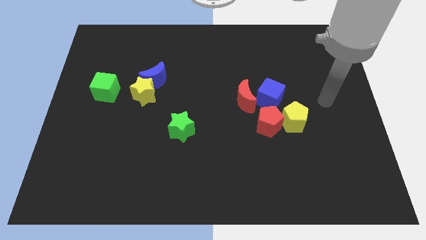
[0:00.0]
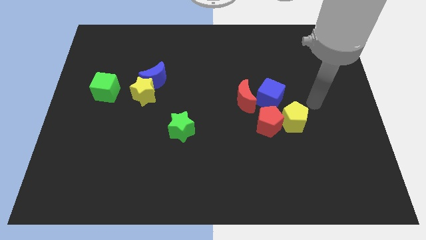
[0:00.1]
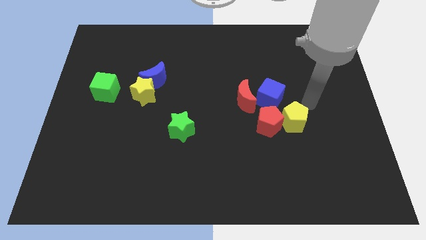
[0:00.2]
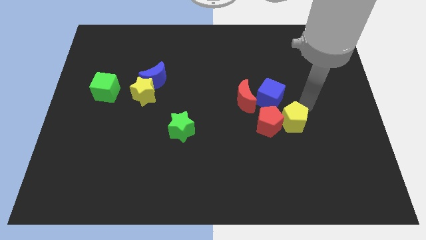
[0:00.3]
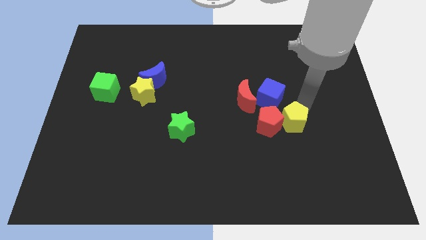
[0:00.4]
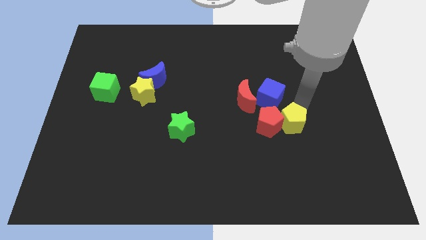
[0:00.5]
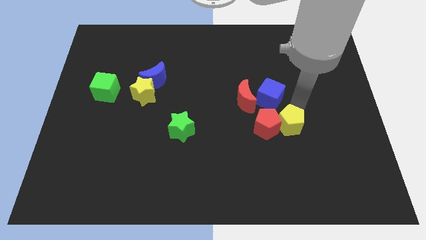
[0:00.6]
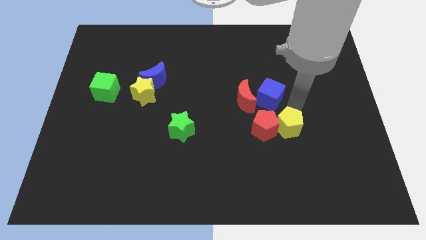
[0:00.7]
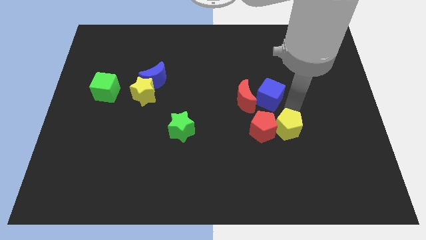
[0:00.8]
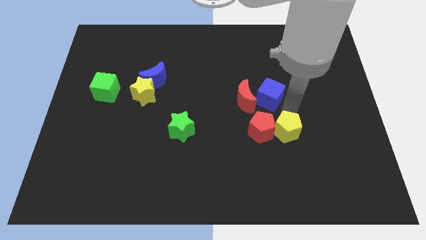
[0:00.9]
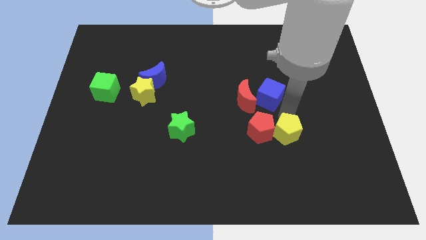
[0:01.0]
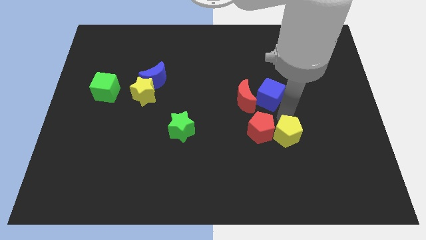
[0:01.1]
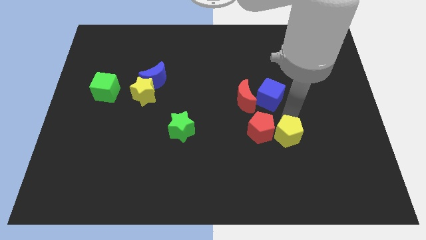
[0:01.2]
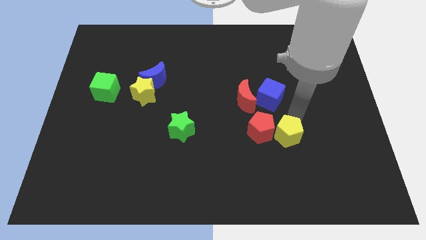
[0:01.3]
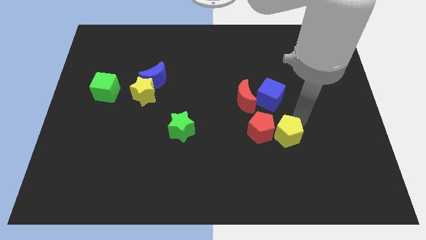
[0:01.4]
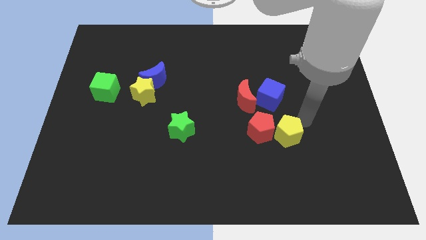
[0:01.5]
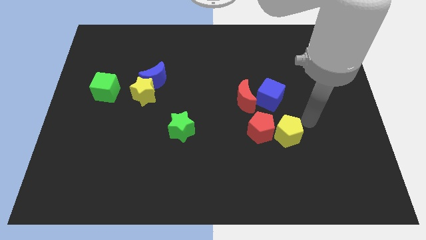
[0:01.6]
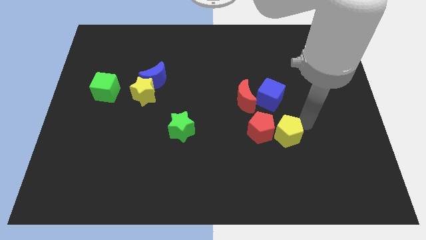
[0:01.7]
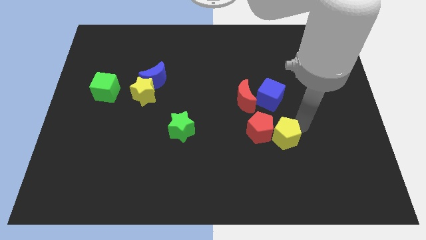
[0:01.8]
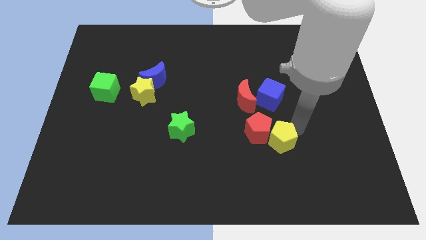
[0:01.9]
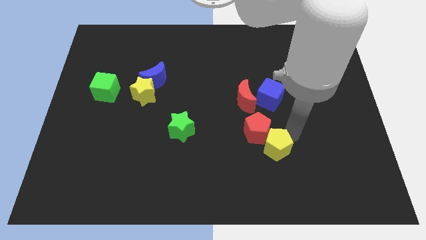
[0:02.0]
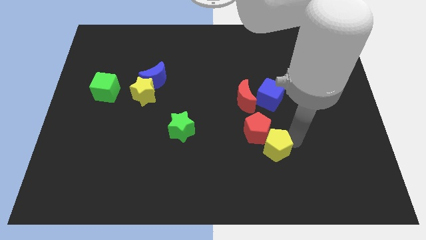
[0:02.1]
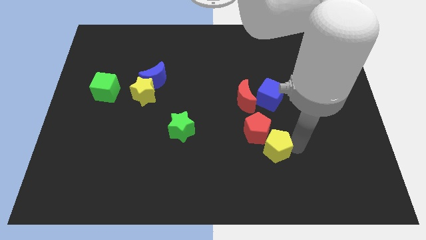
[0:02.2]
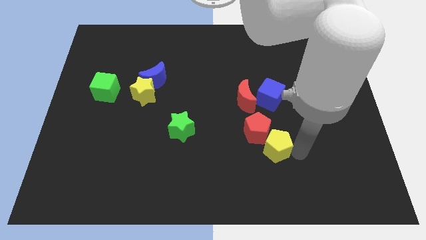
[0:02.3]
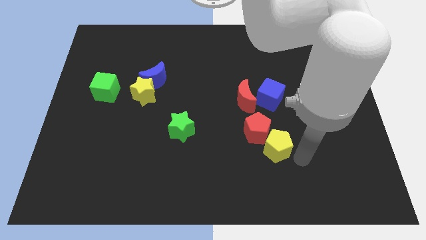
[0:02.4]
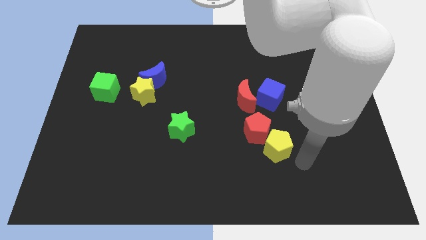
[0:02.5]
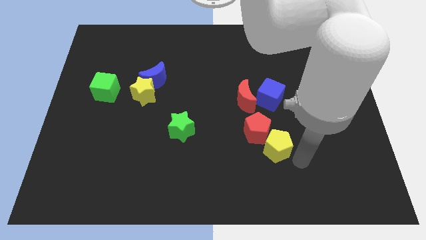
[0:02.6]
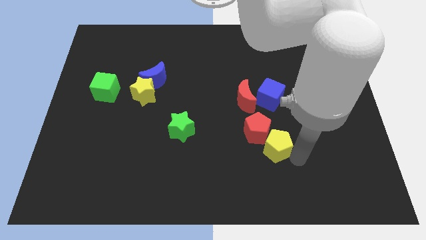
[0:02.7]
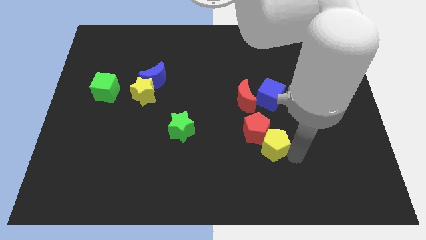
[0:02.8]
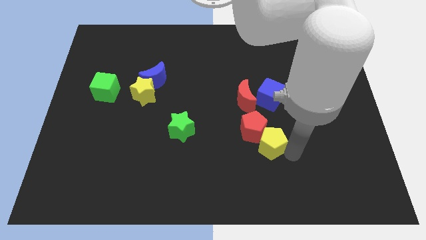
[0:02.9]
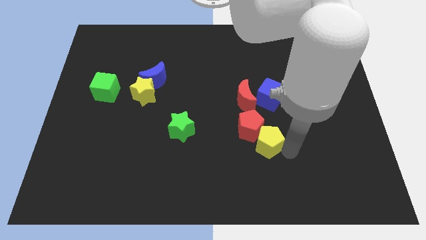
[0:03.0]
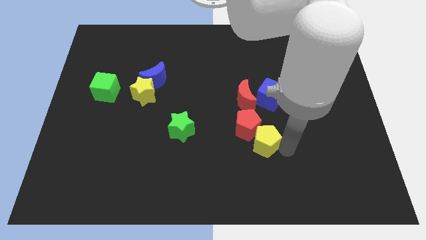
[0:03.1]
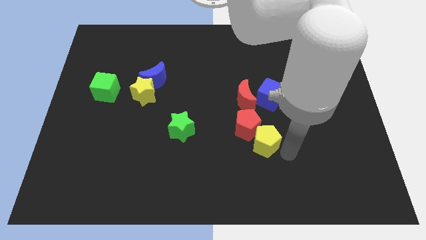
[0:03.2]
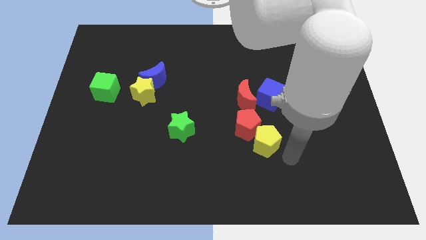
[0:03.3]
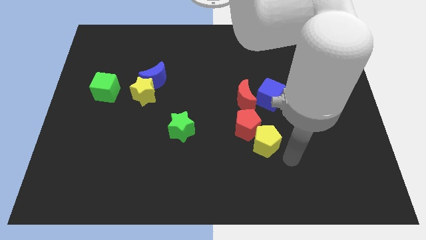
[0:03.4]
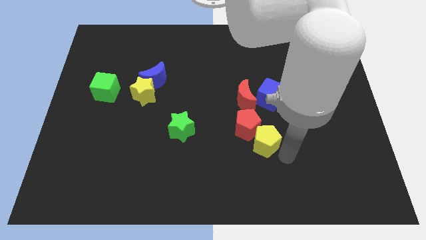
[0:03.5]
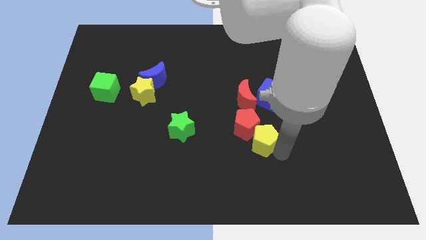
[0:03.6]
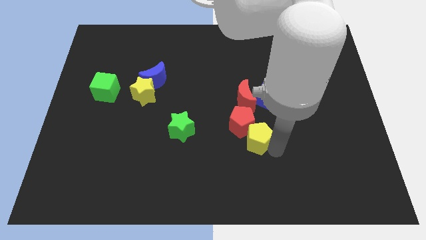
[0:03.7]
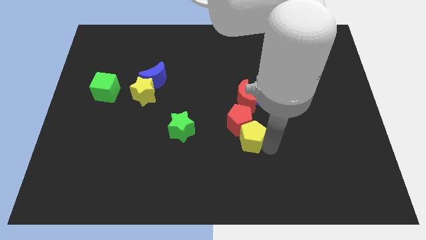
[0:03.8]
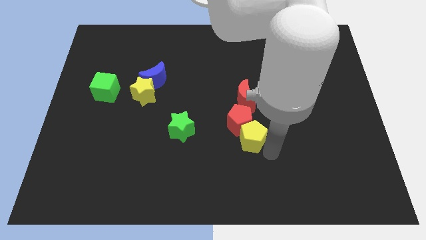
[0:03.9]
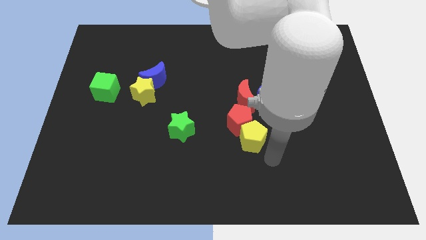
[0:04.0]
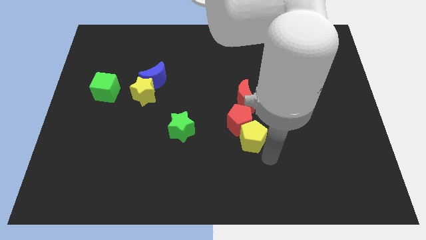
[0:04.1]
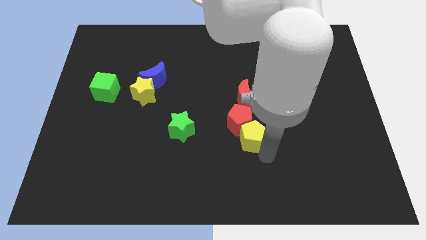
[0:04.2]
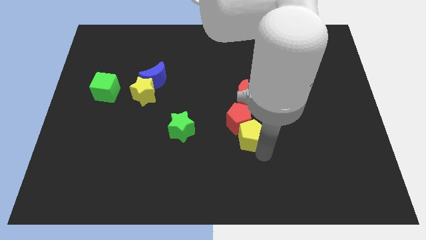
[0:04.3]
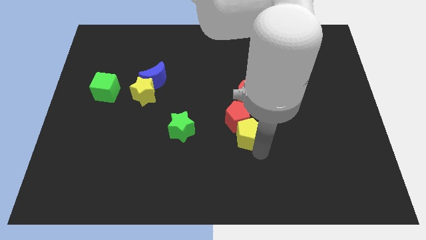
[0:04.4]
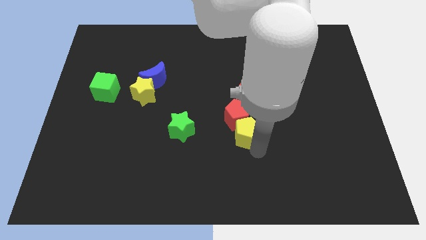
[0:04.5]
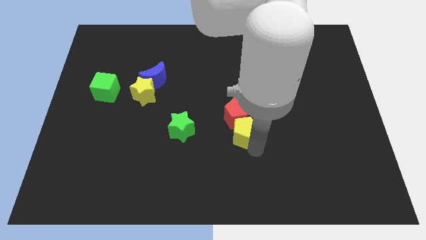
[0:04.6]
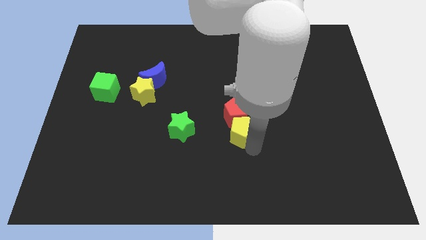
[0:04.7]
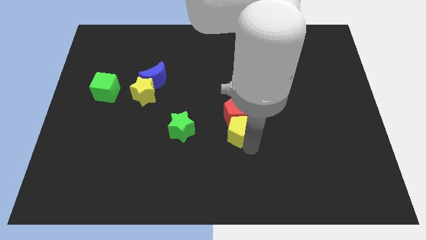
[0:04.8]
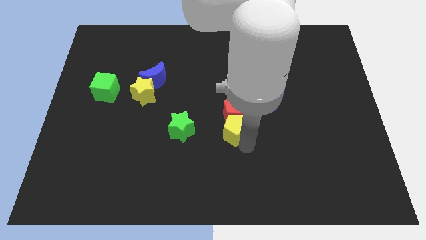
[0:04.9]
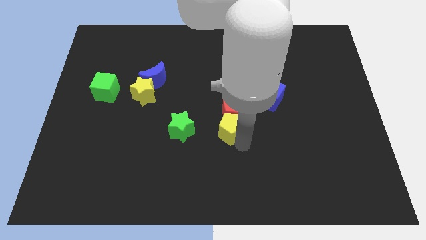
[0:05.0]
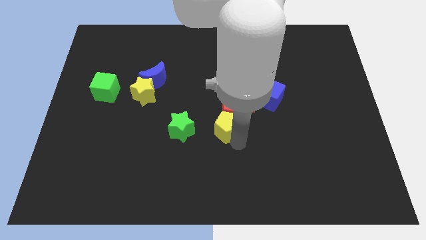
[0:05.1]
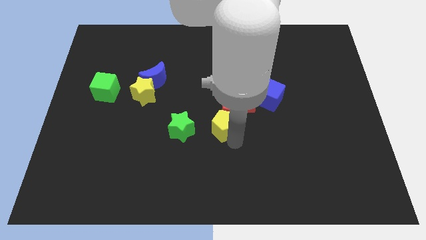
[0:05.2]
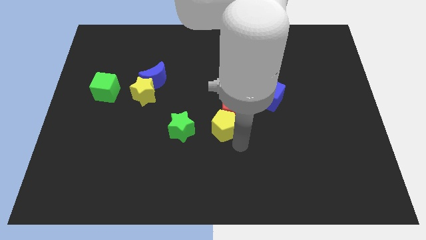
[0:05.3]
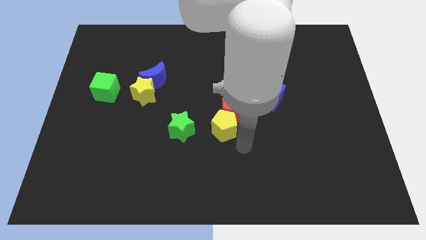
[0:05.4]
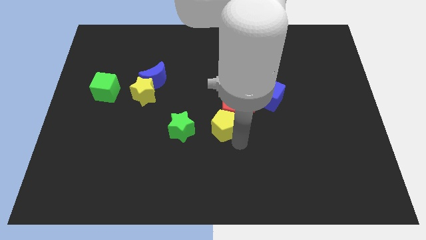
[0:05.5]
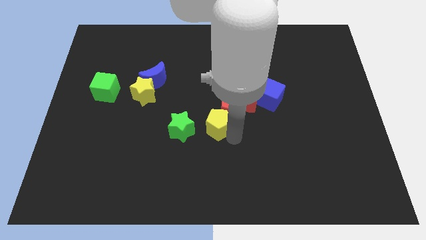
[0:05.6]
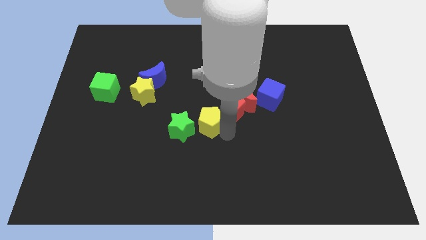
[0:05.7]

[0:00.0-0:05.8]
move the yellow pentagon to the top right side of the green star

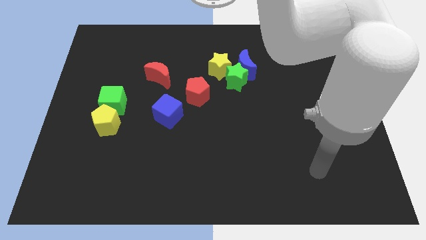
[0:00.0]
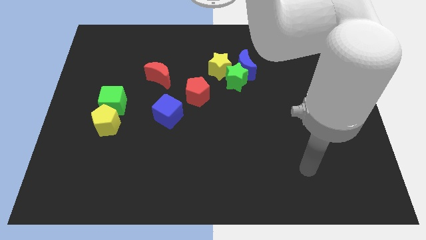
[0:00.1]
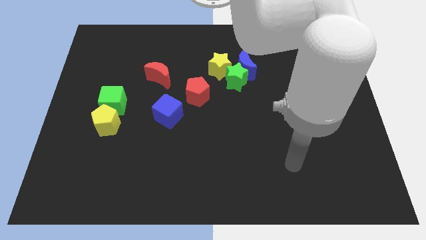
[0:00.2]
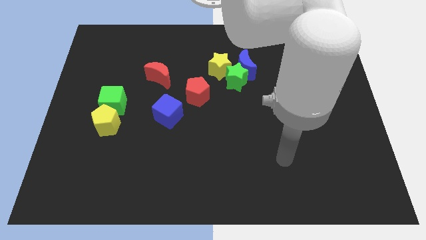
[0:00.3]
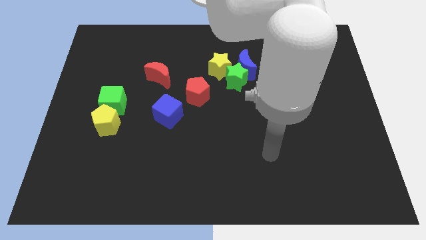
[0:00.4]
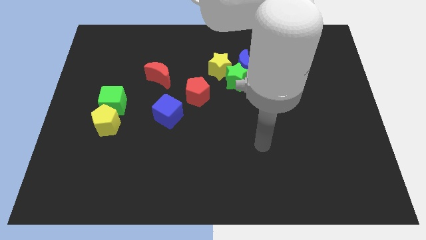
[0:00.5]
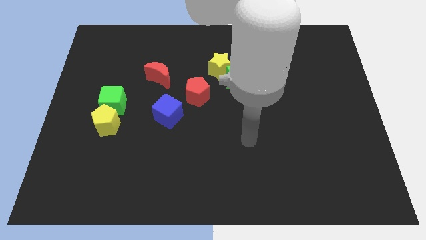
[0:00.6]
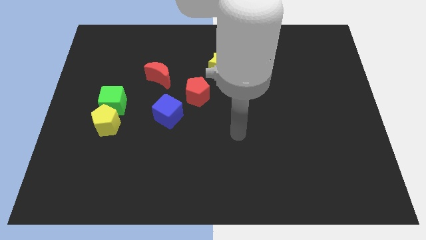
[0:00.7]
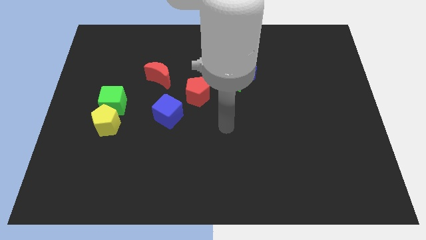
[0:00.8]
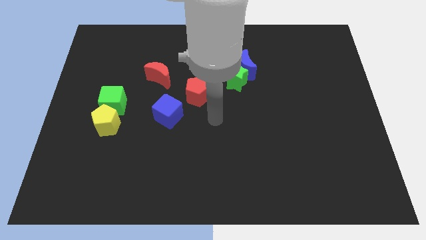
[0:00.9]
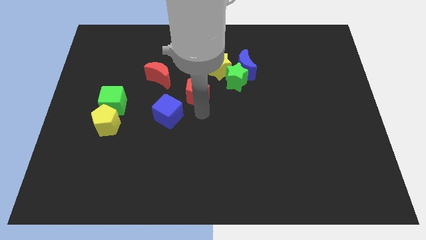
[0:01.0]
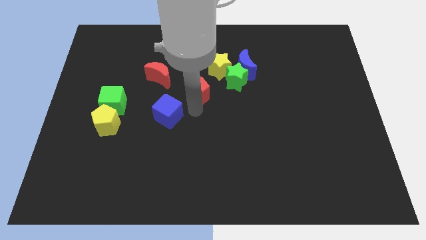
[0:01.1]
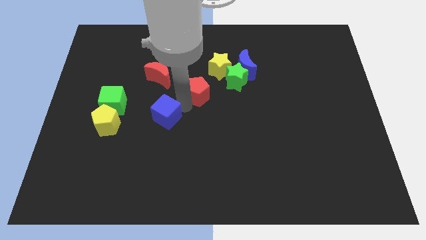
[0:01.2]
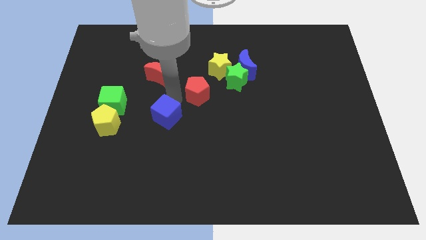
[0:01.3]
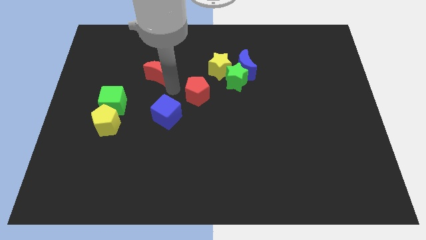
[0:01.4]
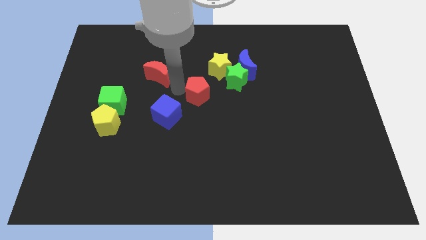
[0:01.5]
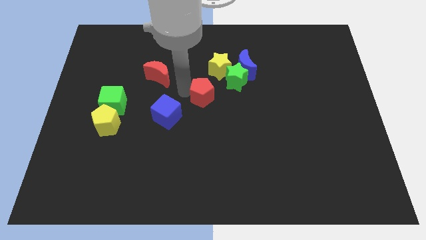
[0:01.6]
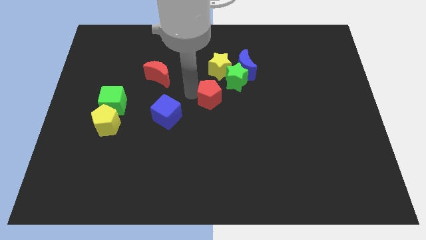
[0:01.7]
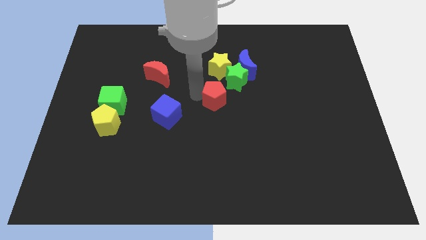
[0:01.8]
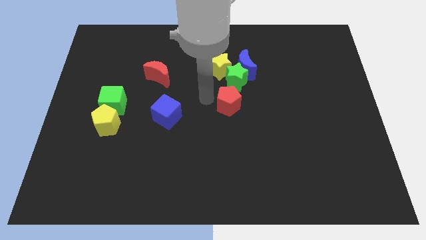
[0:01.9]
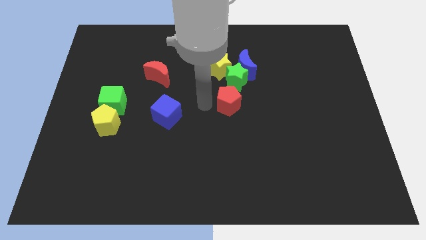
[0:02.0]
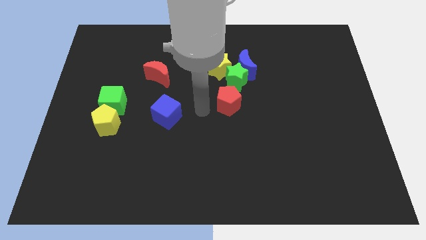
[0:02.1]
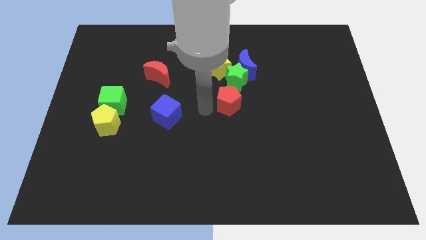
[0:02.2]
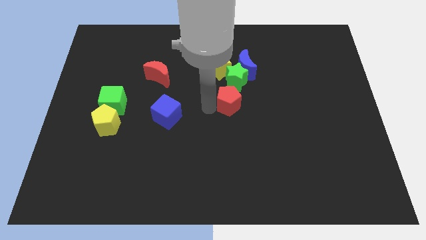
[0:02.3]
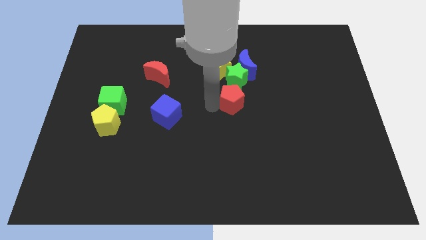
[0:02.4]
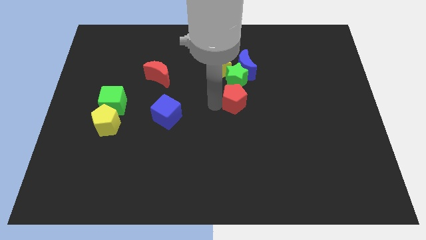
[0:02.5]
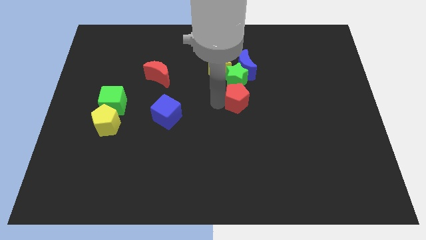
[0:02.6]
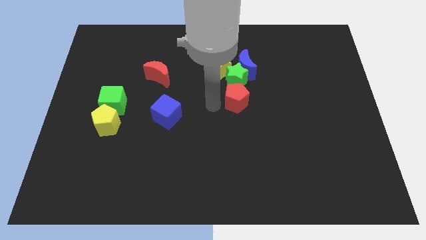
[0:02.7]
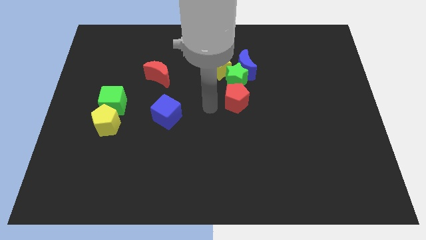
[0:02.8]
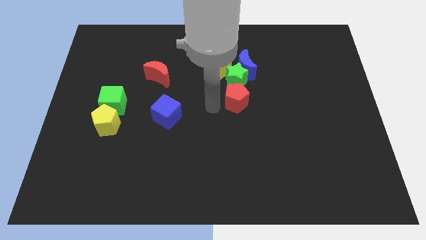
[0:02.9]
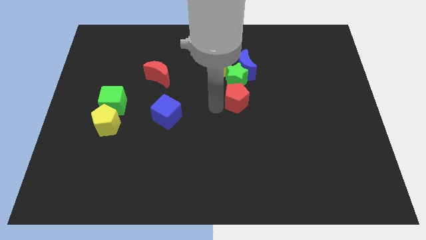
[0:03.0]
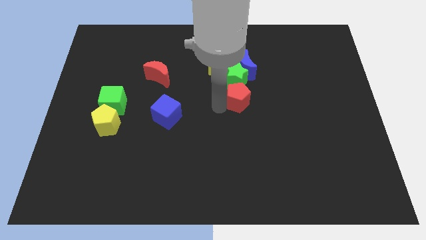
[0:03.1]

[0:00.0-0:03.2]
put the red pentagon to the bottom right of the green star
